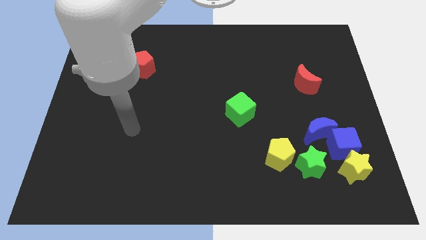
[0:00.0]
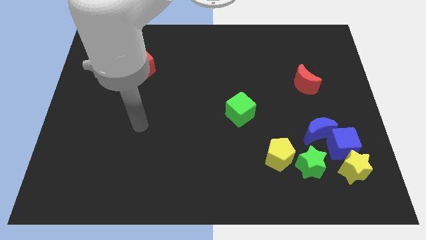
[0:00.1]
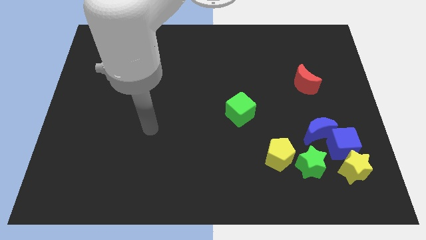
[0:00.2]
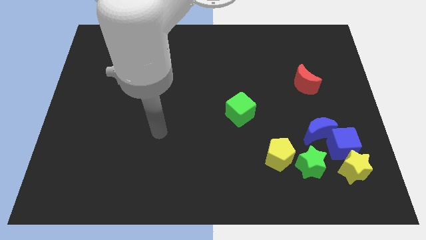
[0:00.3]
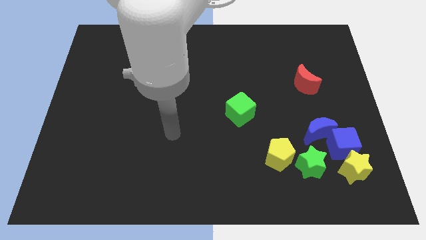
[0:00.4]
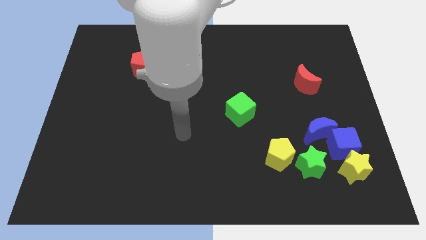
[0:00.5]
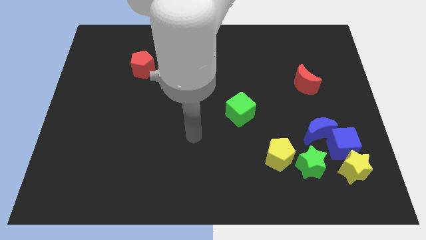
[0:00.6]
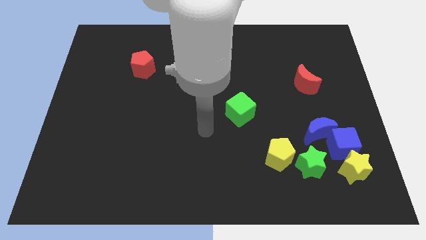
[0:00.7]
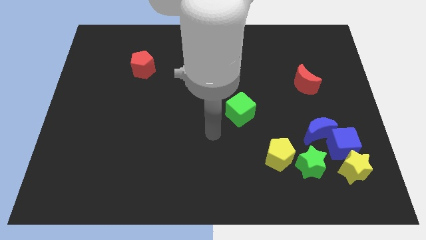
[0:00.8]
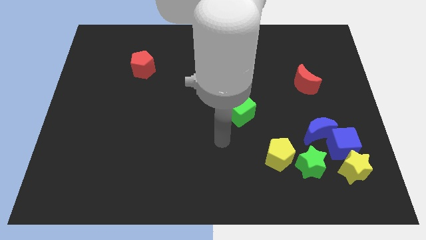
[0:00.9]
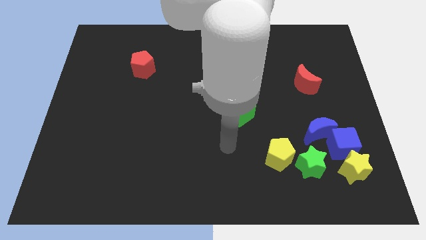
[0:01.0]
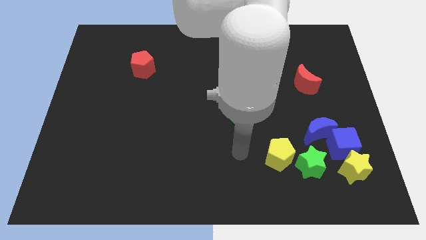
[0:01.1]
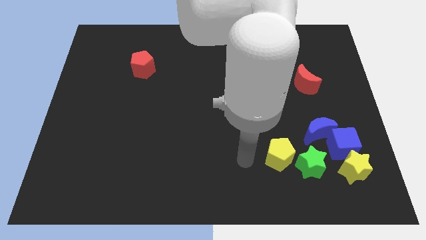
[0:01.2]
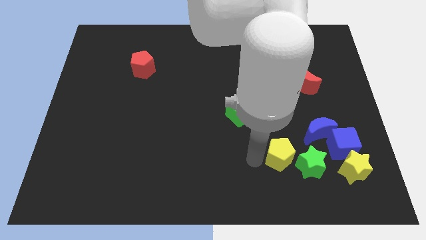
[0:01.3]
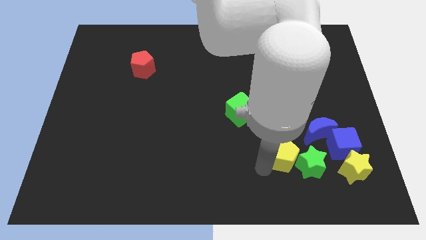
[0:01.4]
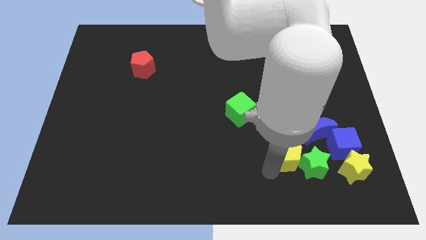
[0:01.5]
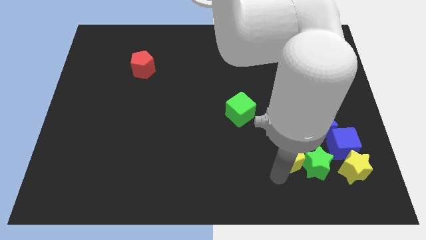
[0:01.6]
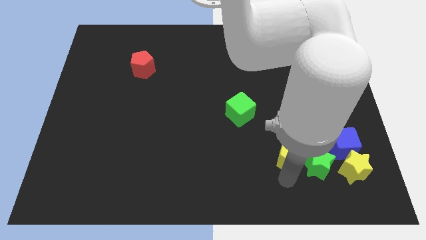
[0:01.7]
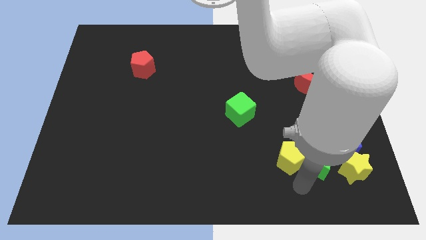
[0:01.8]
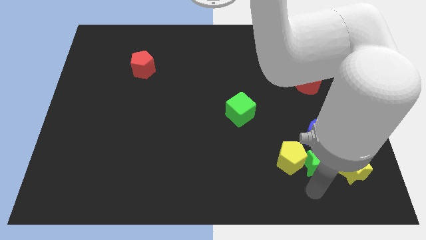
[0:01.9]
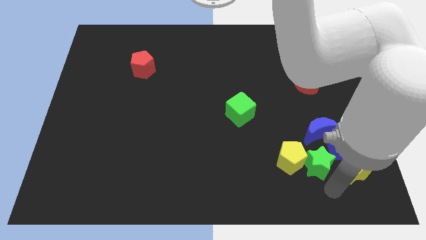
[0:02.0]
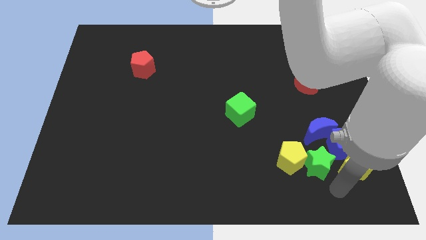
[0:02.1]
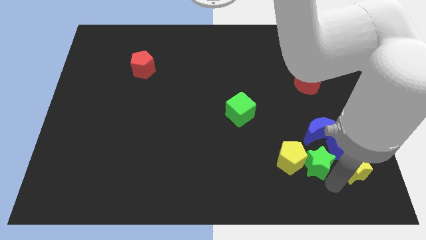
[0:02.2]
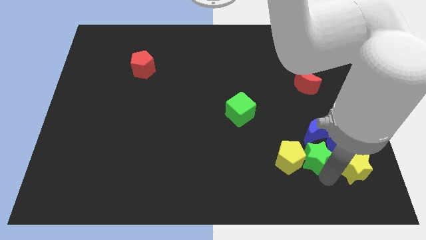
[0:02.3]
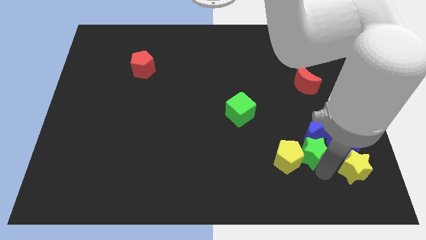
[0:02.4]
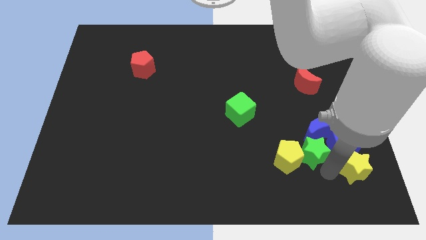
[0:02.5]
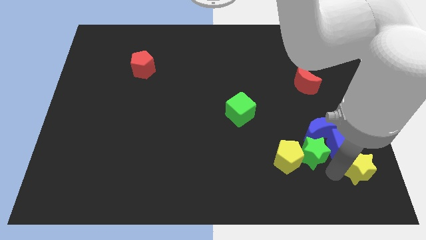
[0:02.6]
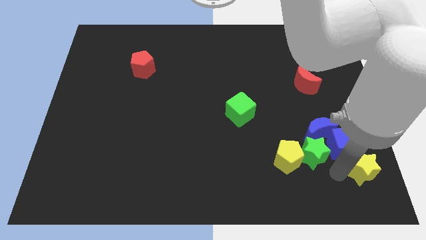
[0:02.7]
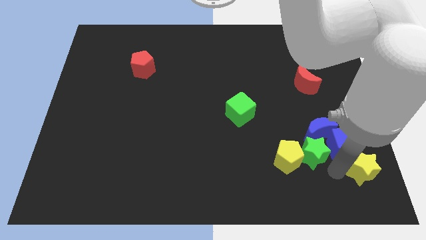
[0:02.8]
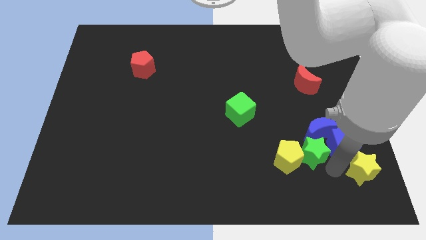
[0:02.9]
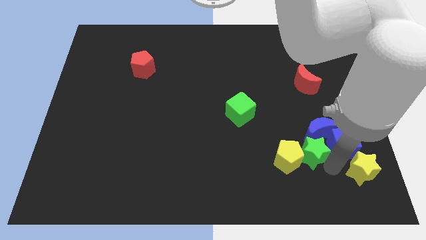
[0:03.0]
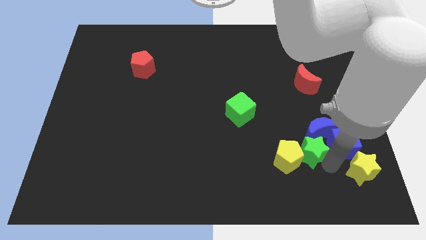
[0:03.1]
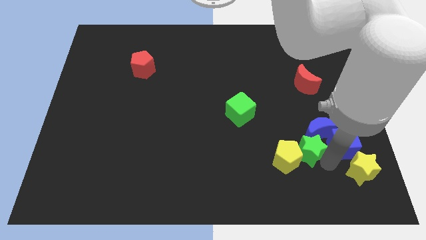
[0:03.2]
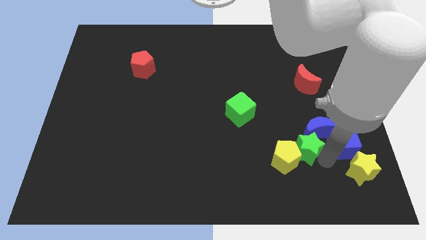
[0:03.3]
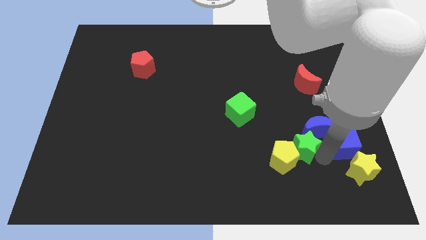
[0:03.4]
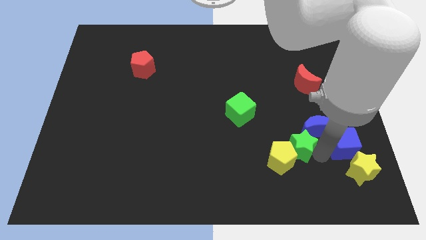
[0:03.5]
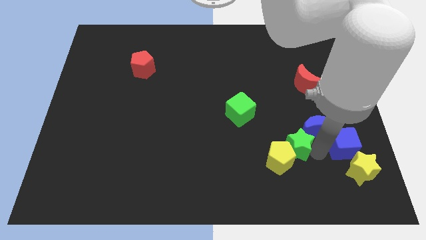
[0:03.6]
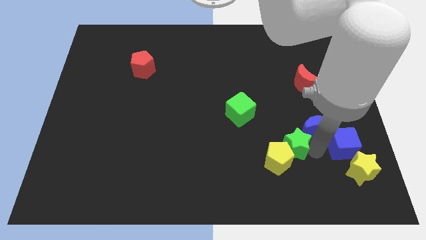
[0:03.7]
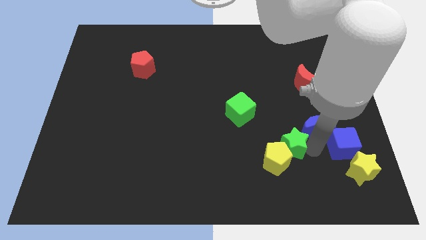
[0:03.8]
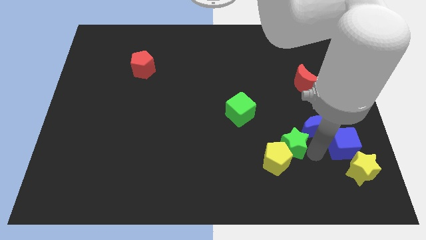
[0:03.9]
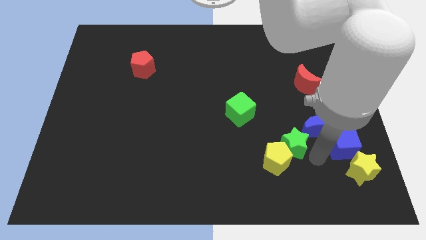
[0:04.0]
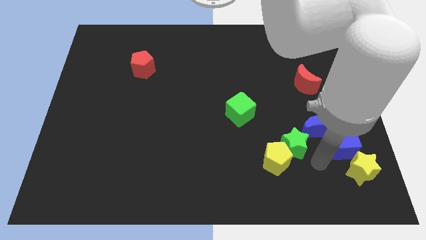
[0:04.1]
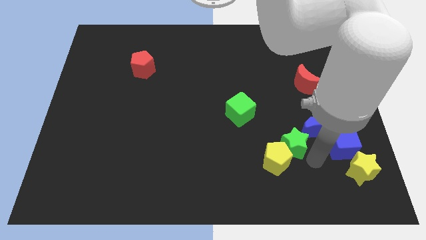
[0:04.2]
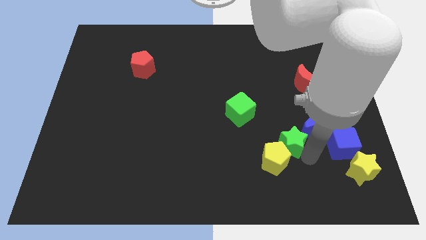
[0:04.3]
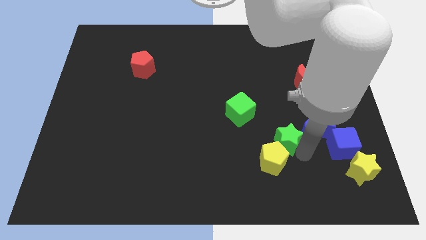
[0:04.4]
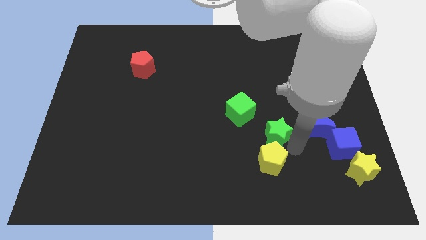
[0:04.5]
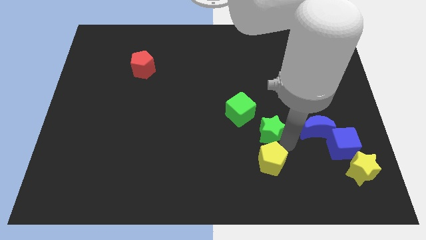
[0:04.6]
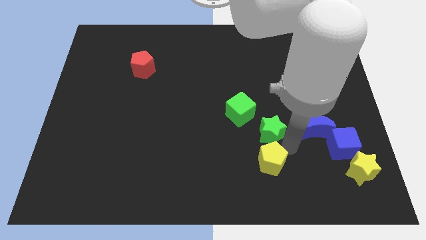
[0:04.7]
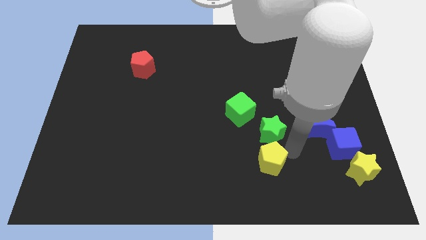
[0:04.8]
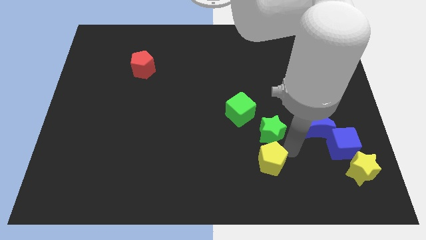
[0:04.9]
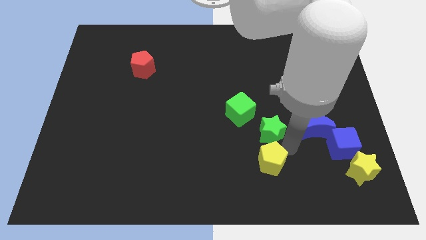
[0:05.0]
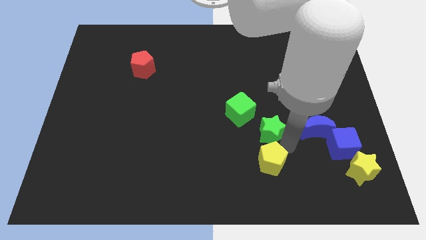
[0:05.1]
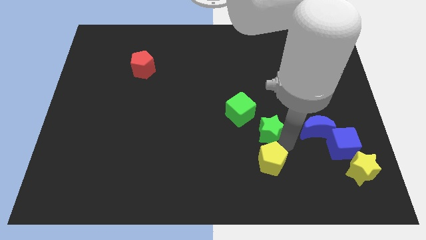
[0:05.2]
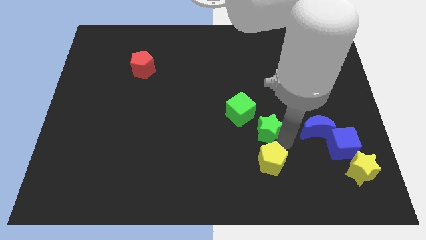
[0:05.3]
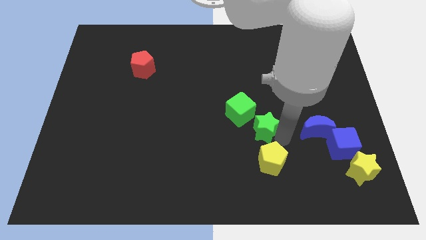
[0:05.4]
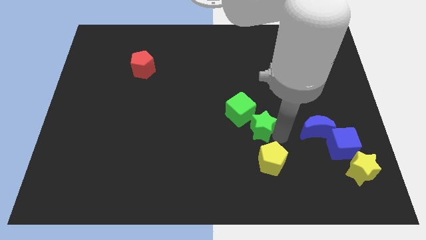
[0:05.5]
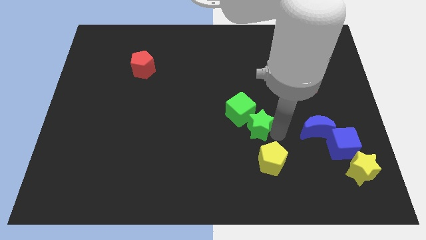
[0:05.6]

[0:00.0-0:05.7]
slide the green star close to the green cube

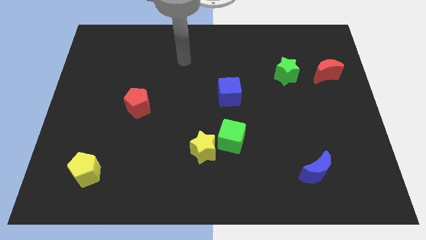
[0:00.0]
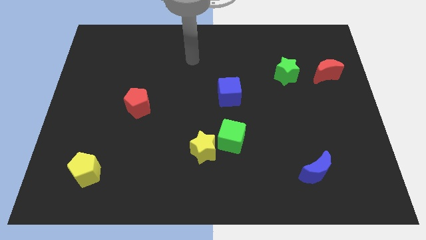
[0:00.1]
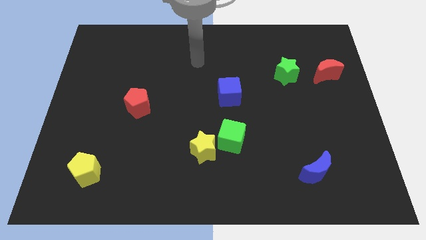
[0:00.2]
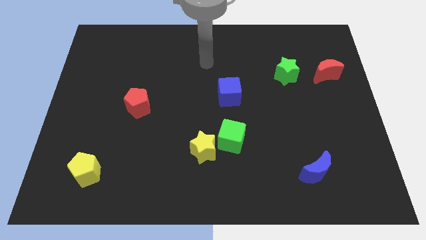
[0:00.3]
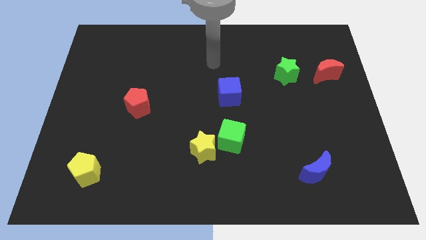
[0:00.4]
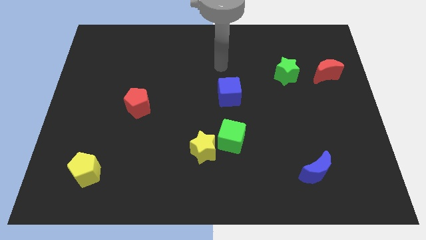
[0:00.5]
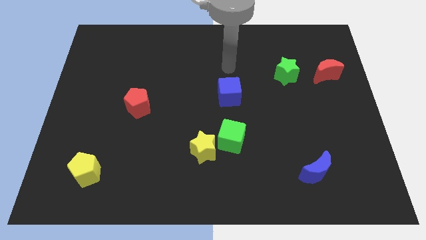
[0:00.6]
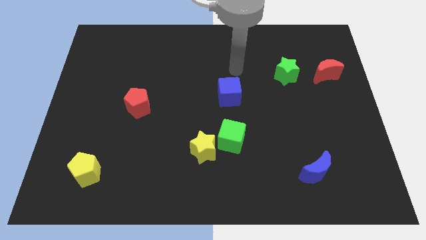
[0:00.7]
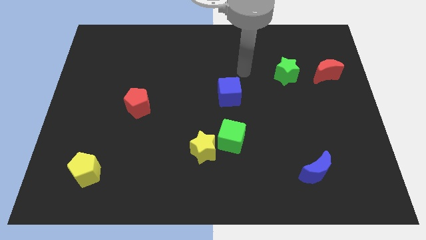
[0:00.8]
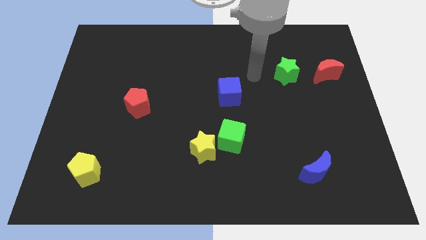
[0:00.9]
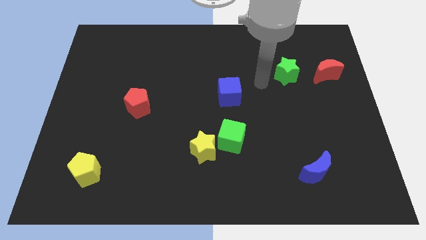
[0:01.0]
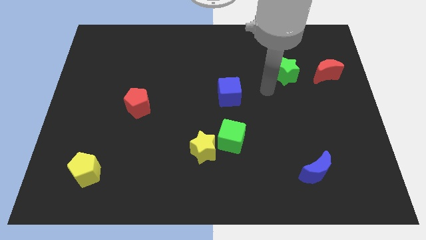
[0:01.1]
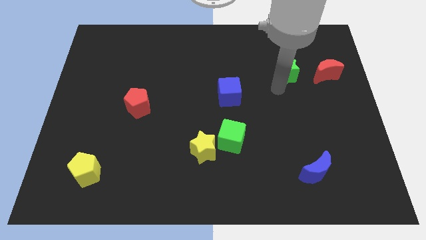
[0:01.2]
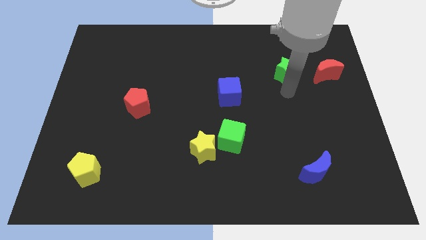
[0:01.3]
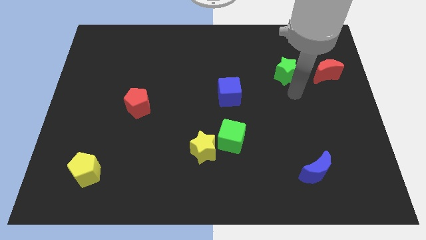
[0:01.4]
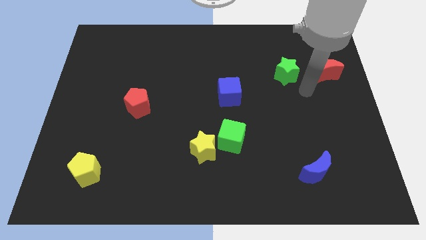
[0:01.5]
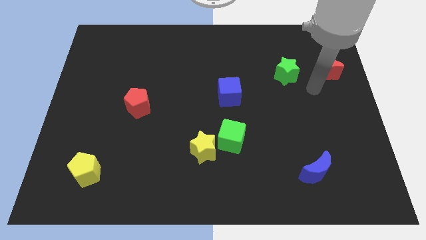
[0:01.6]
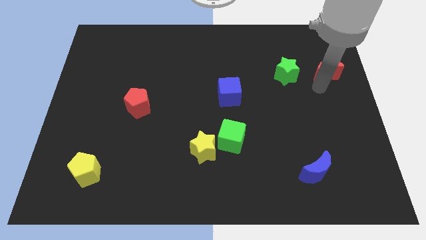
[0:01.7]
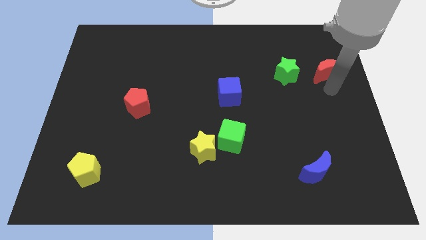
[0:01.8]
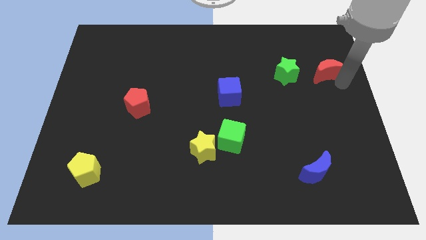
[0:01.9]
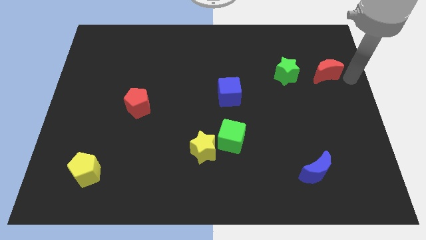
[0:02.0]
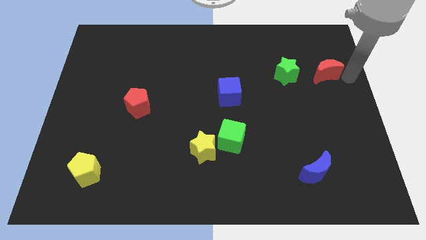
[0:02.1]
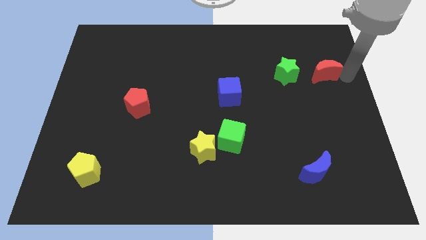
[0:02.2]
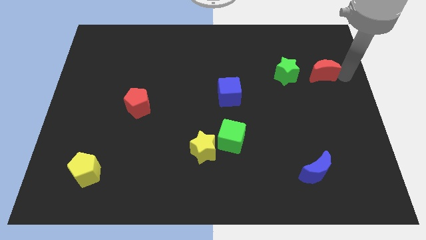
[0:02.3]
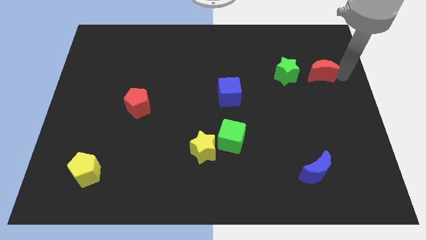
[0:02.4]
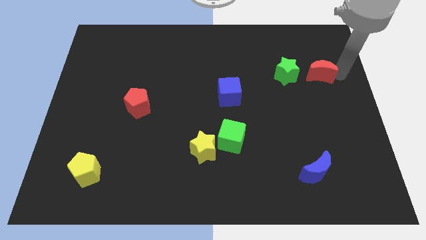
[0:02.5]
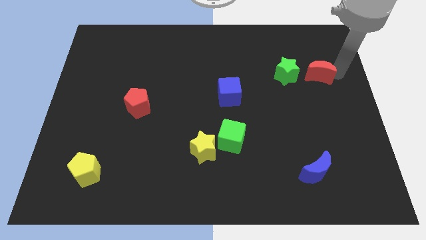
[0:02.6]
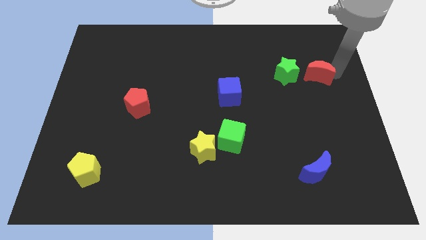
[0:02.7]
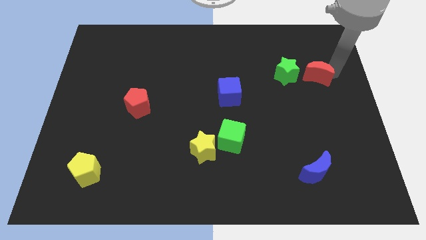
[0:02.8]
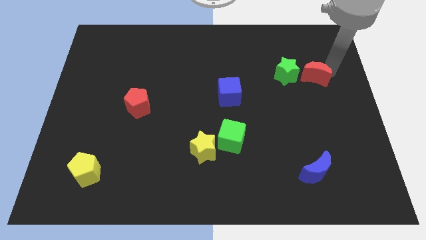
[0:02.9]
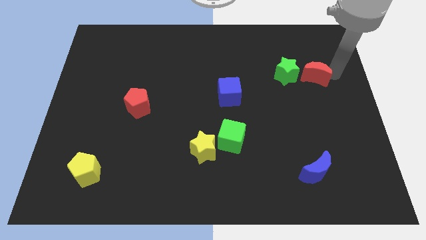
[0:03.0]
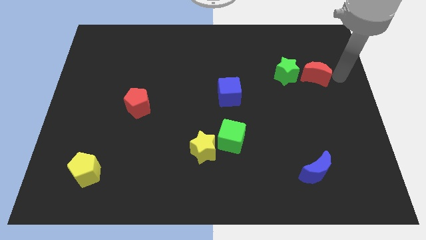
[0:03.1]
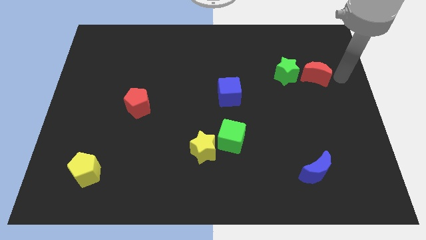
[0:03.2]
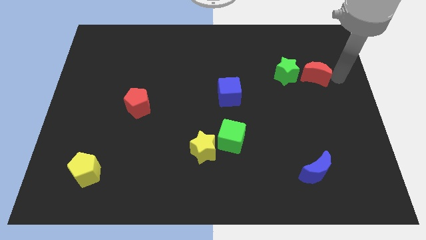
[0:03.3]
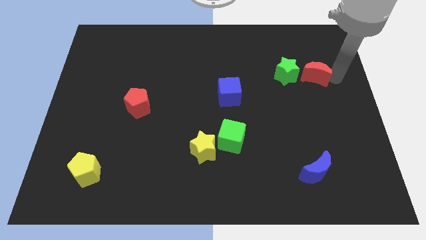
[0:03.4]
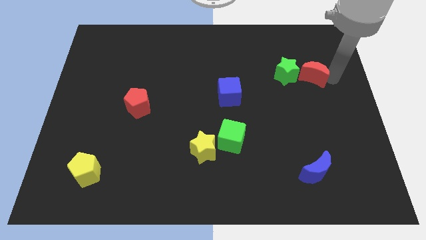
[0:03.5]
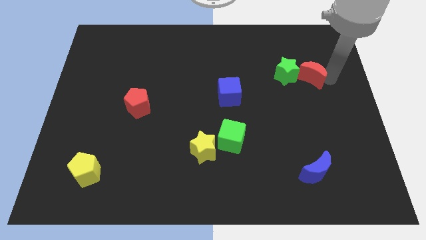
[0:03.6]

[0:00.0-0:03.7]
move the red moon to the green star
